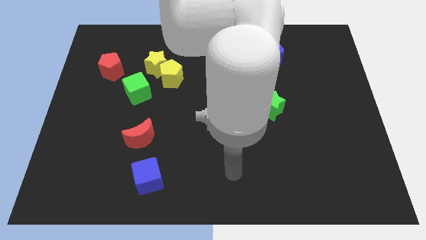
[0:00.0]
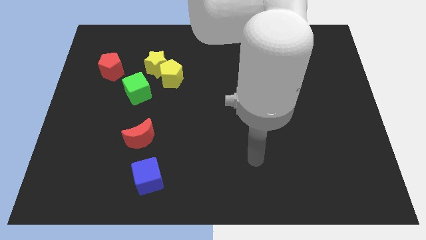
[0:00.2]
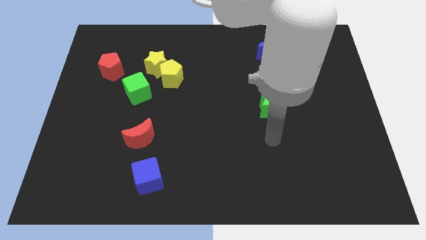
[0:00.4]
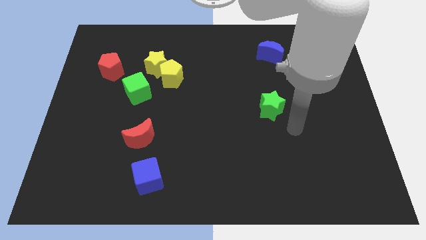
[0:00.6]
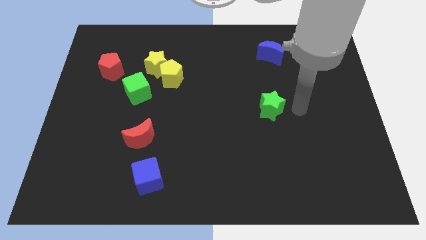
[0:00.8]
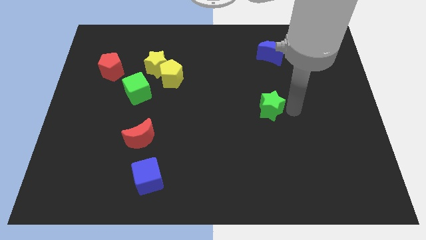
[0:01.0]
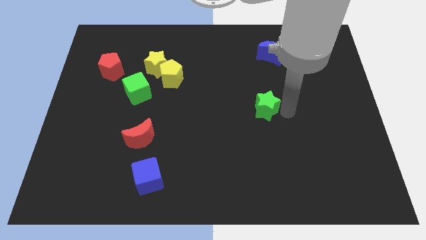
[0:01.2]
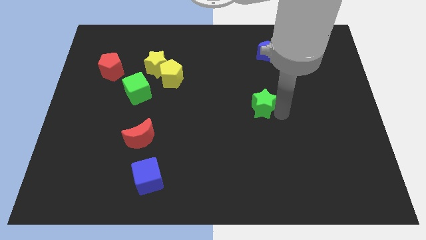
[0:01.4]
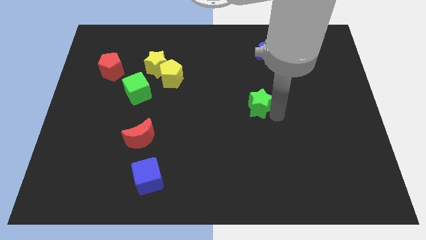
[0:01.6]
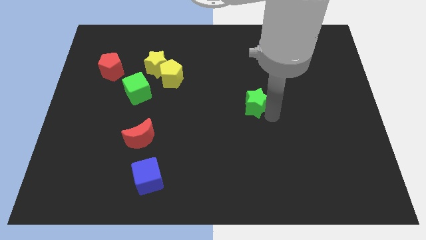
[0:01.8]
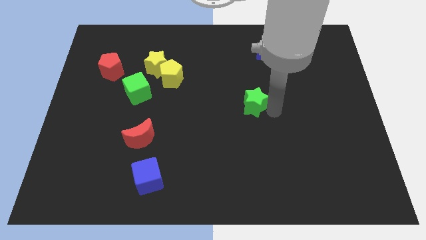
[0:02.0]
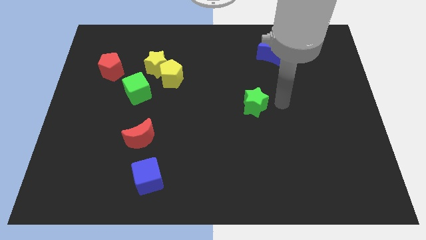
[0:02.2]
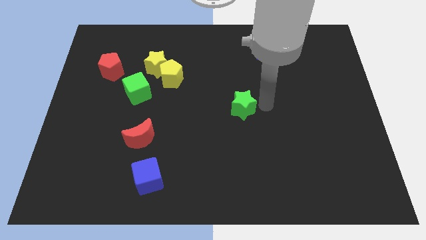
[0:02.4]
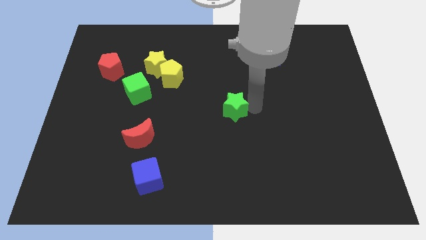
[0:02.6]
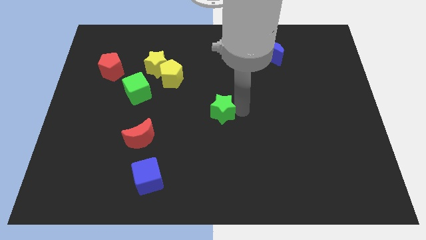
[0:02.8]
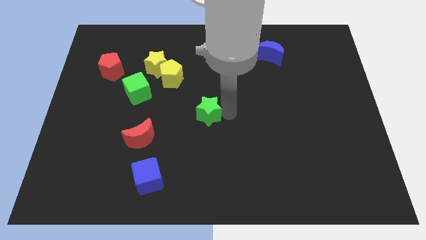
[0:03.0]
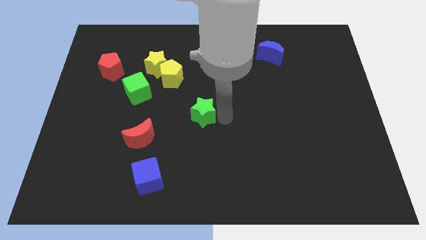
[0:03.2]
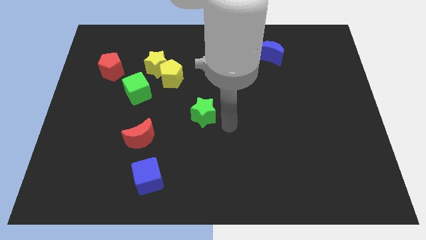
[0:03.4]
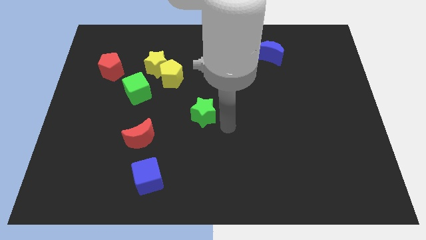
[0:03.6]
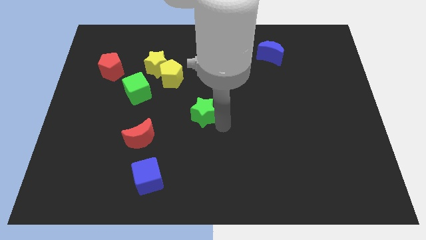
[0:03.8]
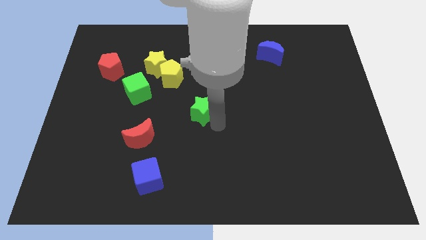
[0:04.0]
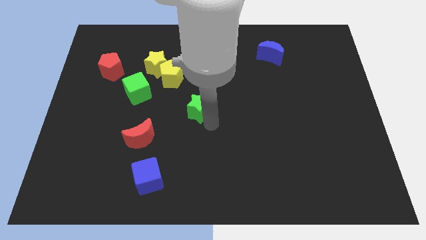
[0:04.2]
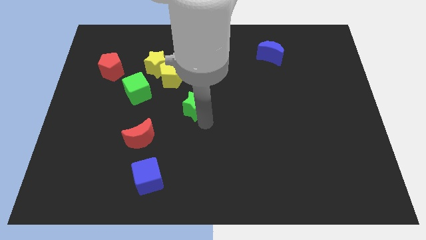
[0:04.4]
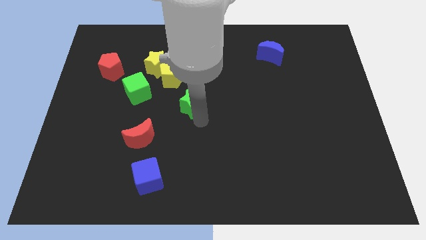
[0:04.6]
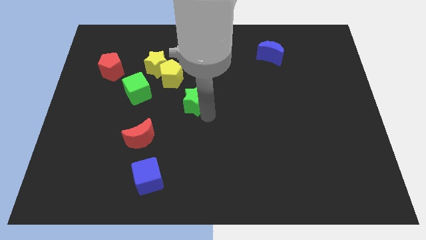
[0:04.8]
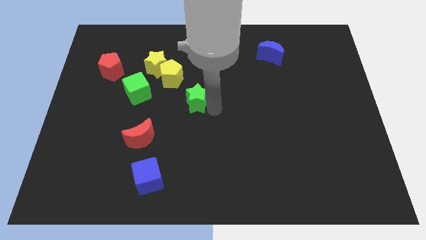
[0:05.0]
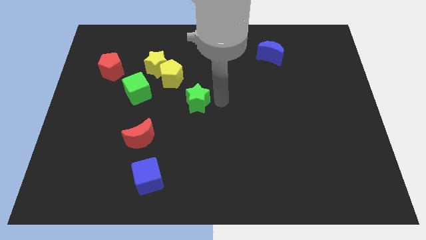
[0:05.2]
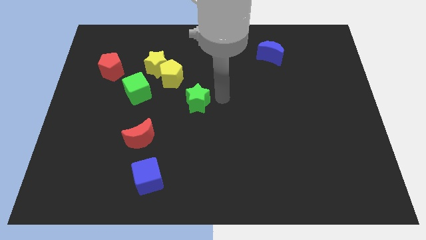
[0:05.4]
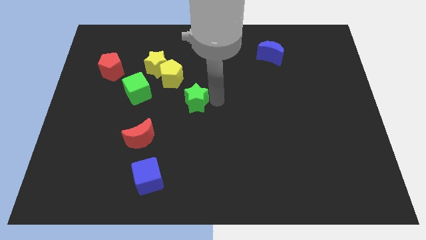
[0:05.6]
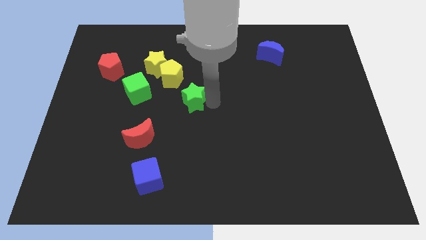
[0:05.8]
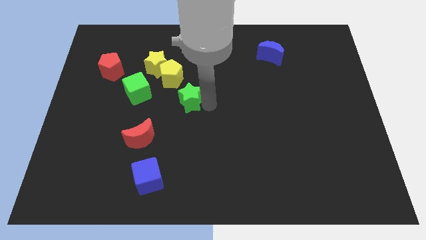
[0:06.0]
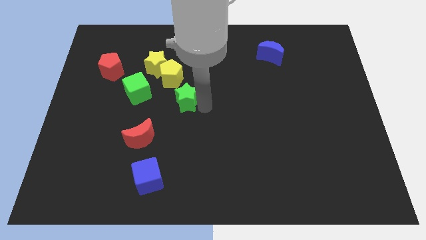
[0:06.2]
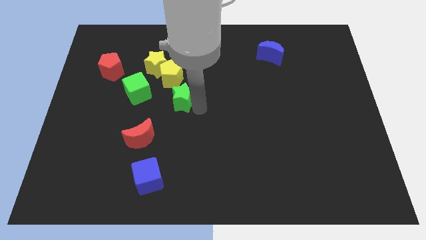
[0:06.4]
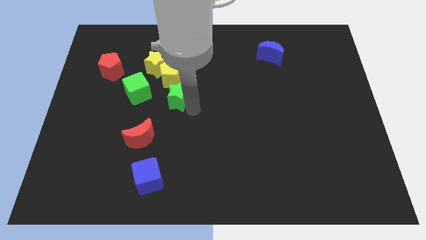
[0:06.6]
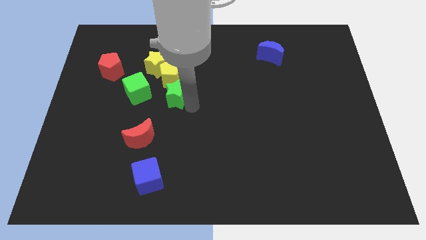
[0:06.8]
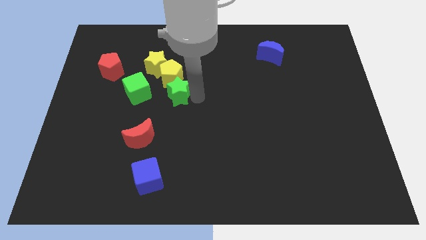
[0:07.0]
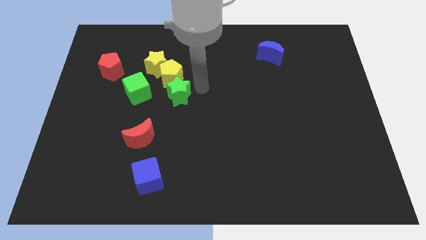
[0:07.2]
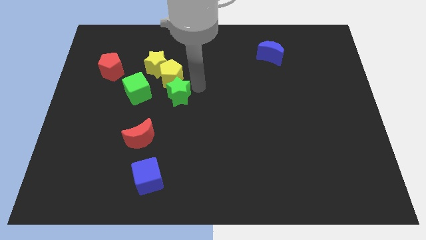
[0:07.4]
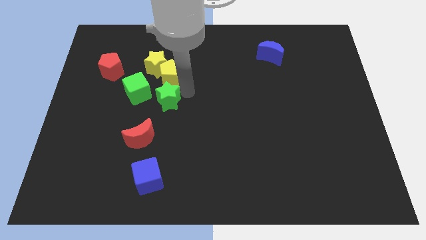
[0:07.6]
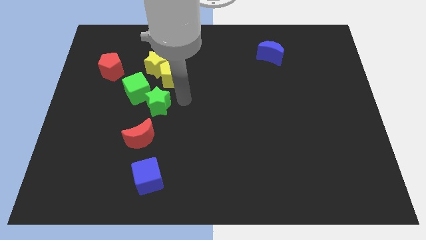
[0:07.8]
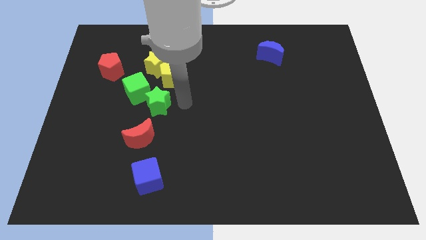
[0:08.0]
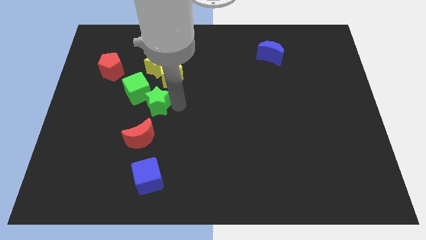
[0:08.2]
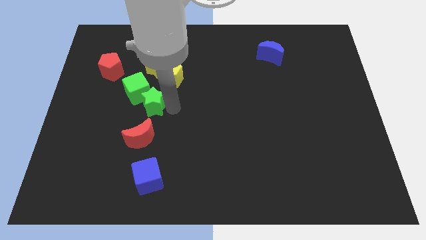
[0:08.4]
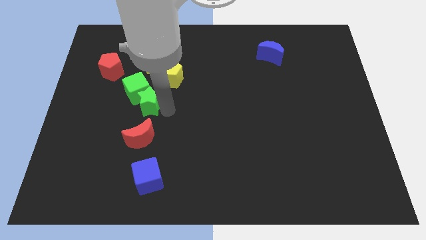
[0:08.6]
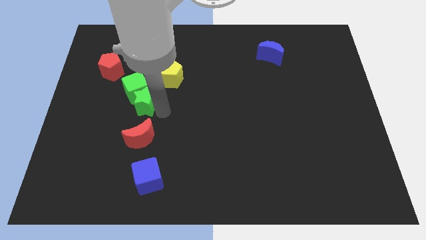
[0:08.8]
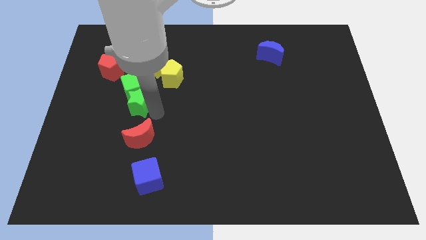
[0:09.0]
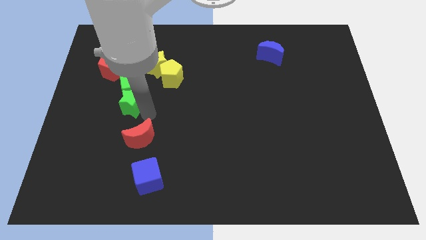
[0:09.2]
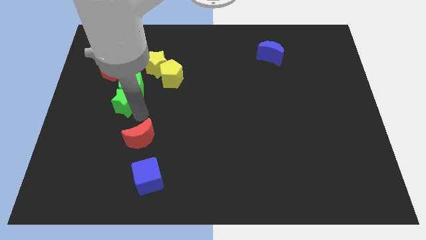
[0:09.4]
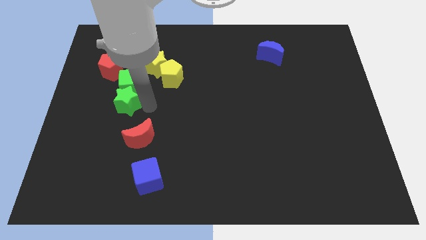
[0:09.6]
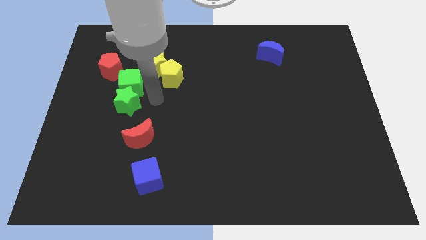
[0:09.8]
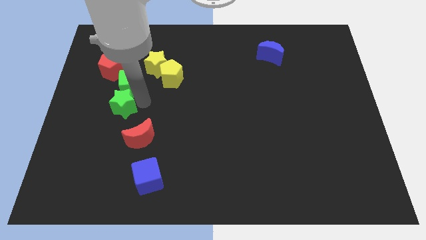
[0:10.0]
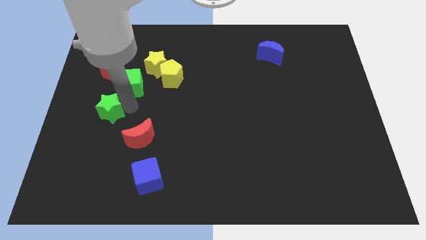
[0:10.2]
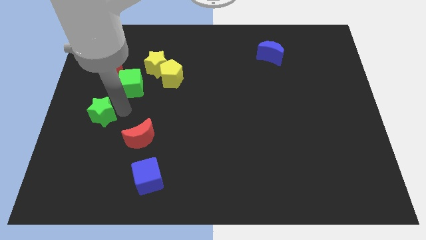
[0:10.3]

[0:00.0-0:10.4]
slide the green star to the left side of the board

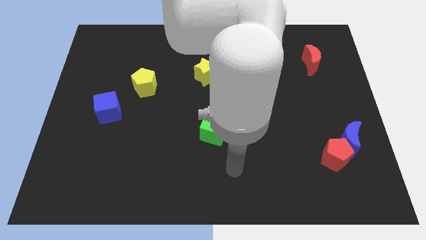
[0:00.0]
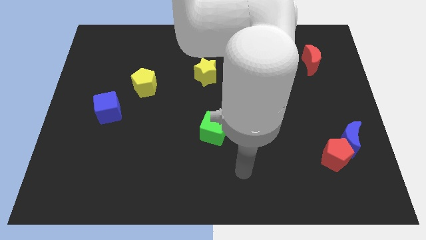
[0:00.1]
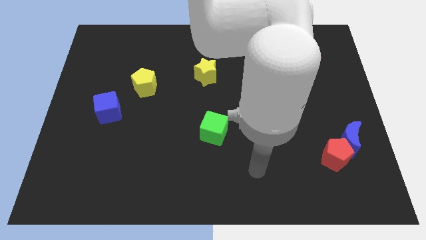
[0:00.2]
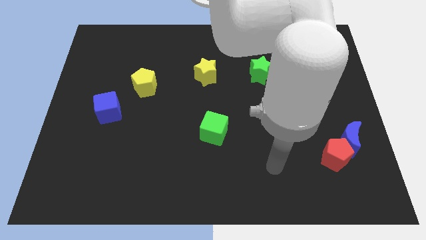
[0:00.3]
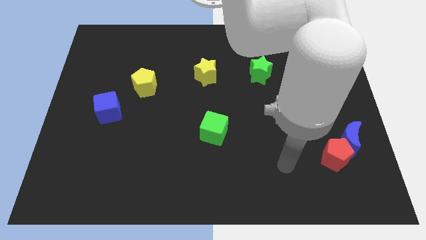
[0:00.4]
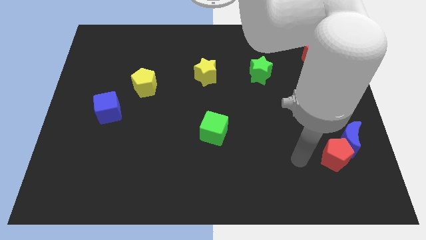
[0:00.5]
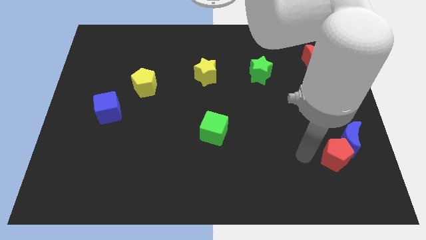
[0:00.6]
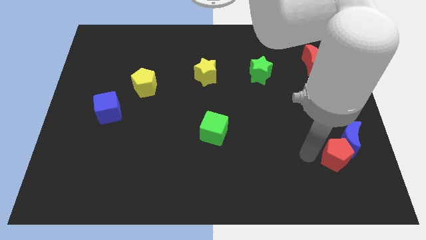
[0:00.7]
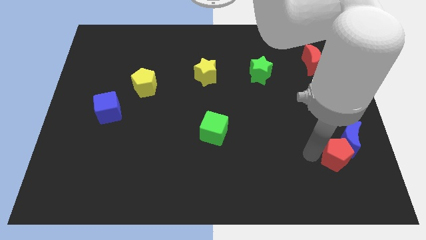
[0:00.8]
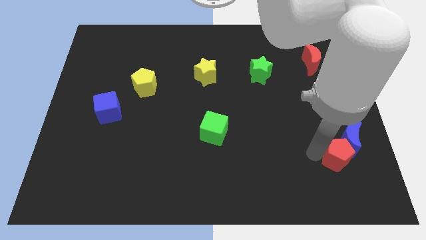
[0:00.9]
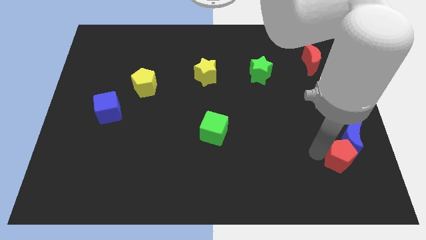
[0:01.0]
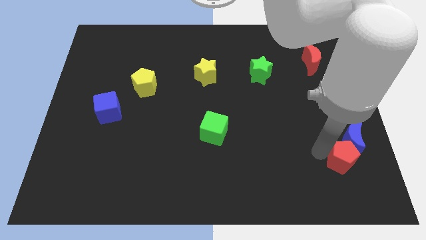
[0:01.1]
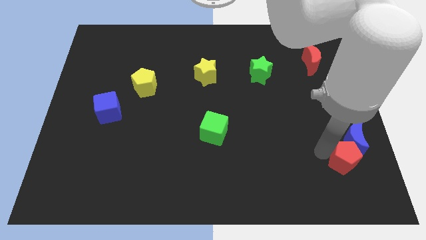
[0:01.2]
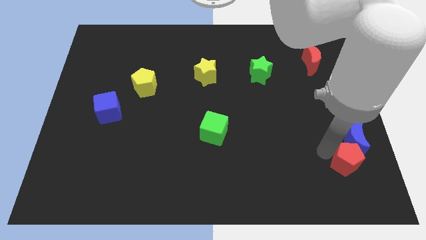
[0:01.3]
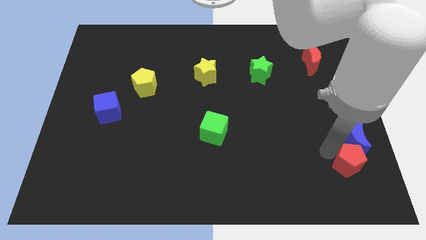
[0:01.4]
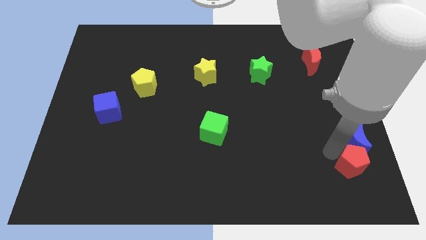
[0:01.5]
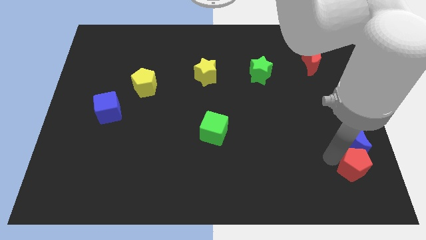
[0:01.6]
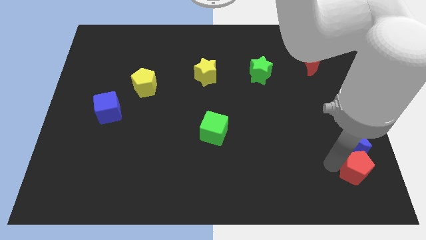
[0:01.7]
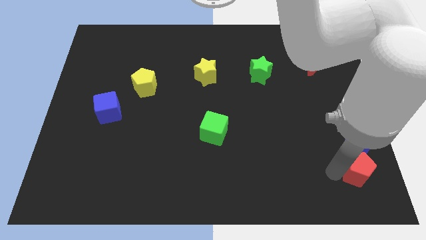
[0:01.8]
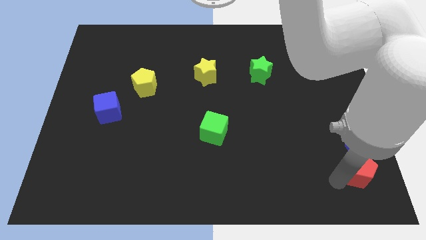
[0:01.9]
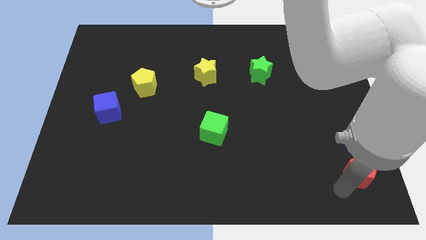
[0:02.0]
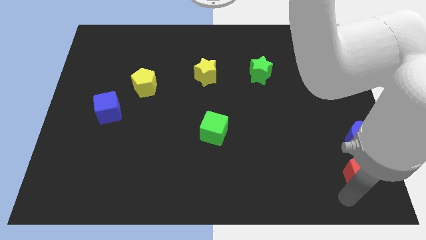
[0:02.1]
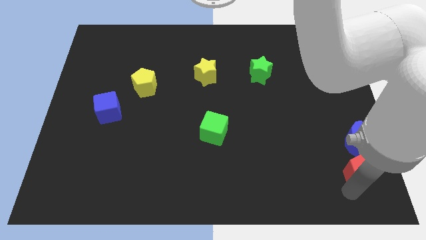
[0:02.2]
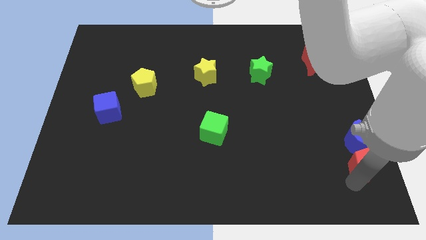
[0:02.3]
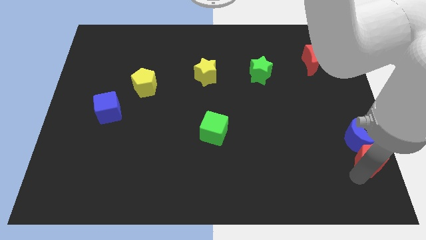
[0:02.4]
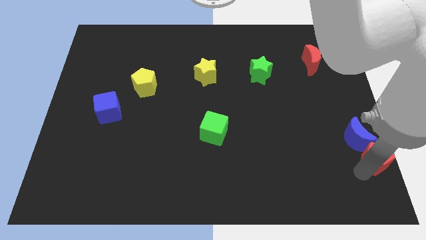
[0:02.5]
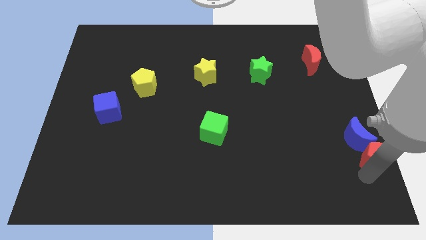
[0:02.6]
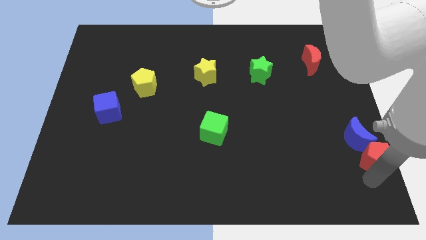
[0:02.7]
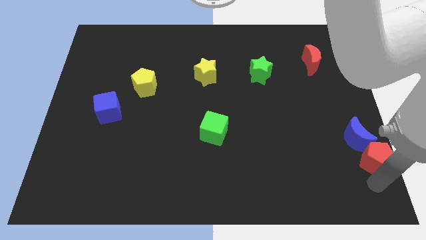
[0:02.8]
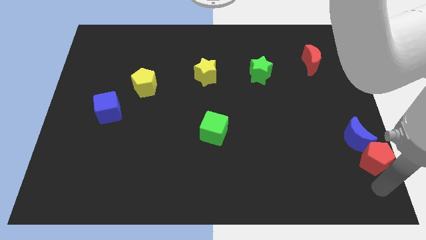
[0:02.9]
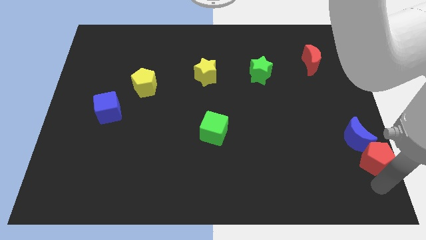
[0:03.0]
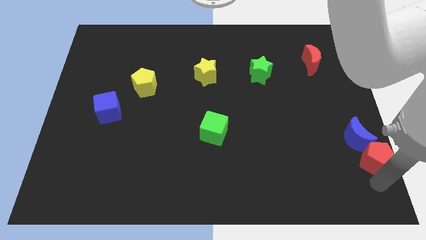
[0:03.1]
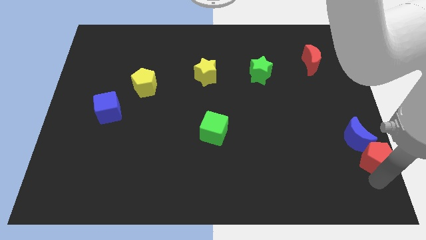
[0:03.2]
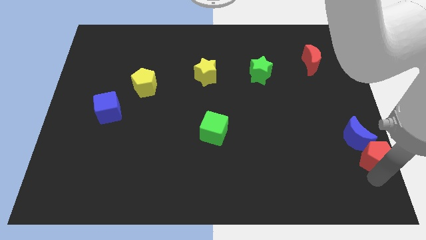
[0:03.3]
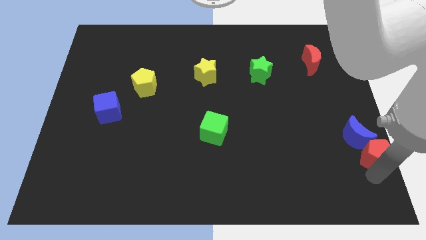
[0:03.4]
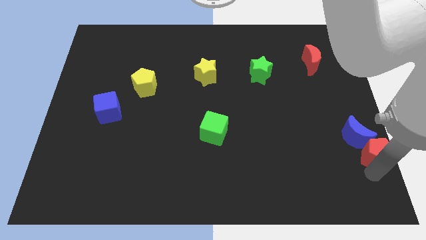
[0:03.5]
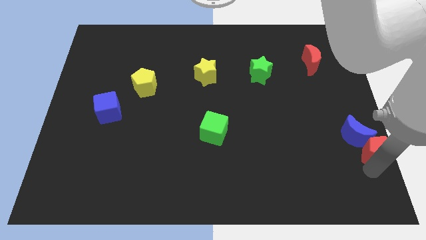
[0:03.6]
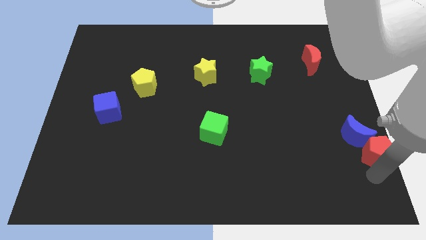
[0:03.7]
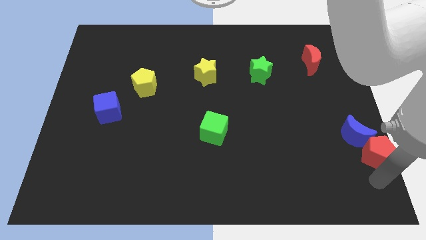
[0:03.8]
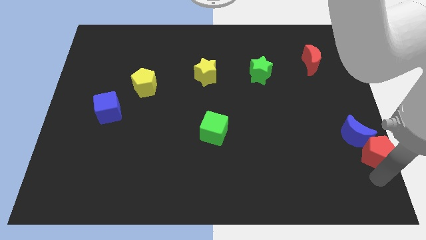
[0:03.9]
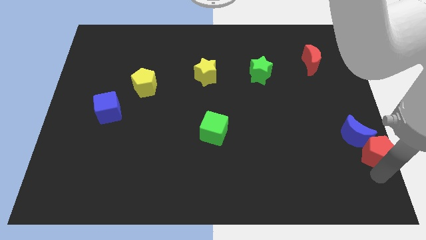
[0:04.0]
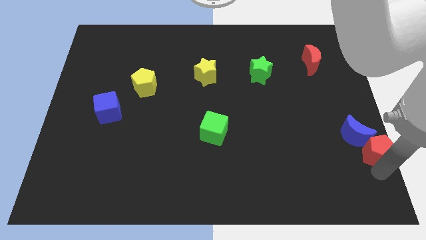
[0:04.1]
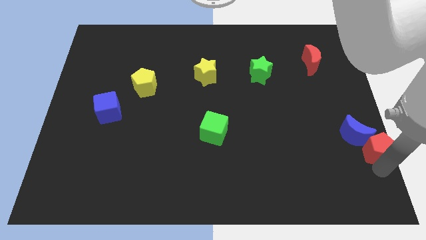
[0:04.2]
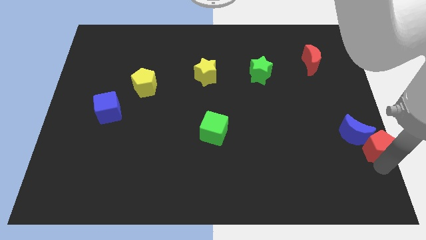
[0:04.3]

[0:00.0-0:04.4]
move the red pentagon to the right side
